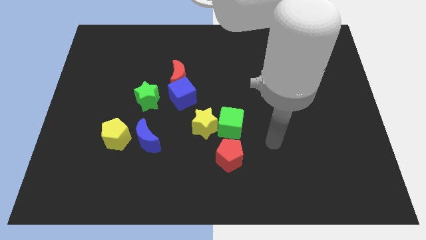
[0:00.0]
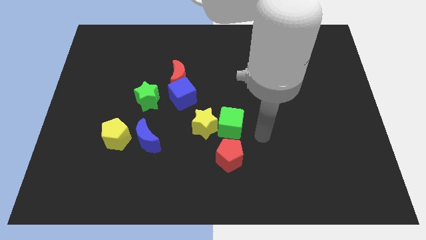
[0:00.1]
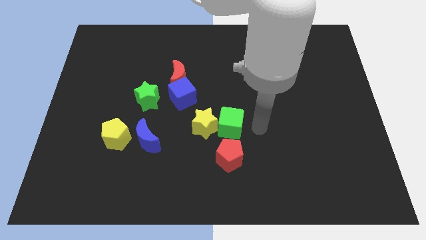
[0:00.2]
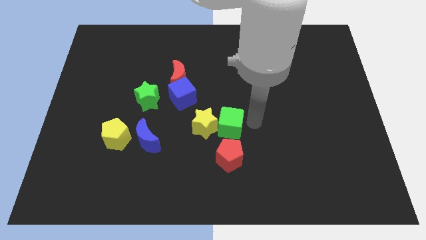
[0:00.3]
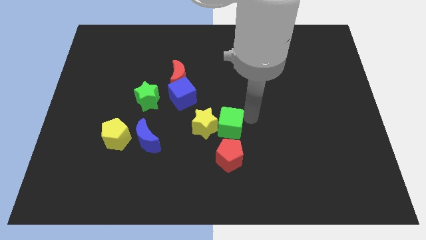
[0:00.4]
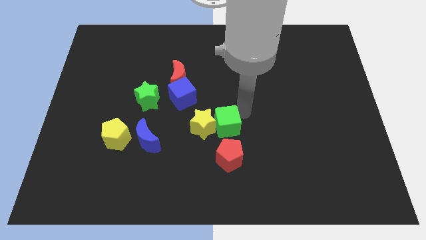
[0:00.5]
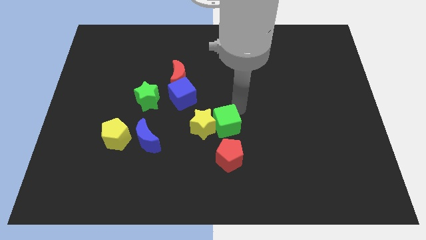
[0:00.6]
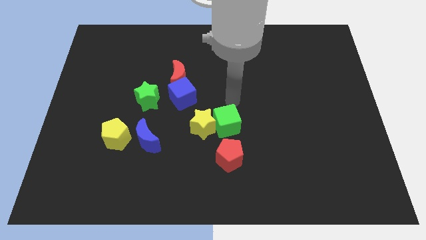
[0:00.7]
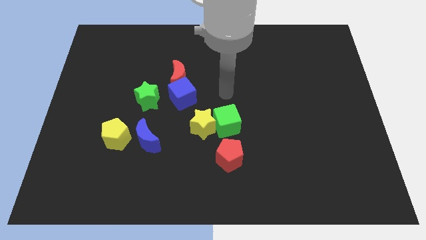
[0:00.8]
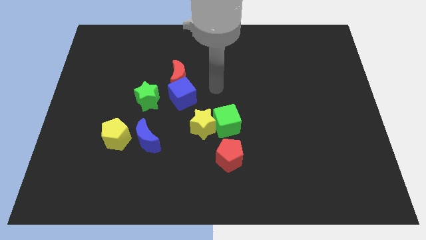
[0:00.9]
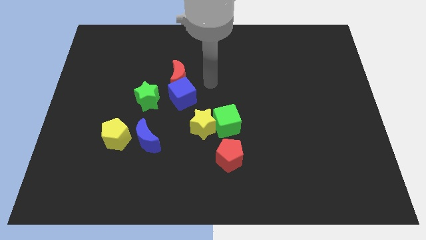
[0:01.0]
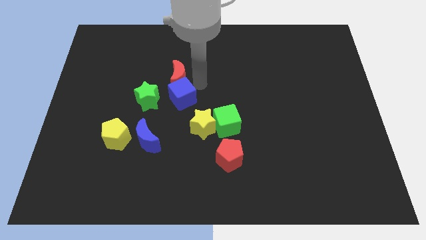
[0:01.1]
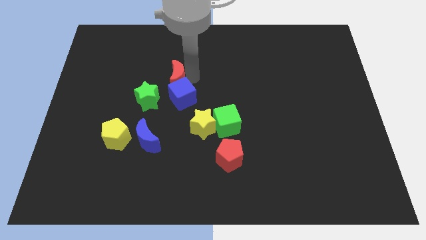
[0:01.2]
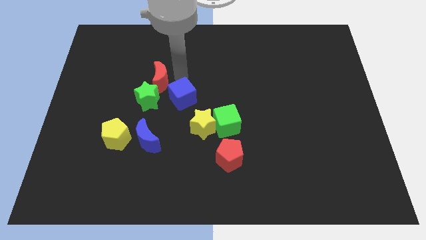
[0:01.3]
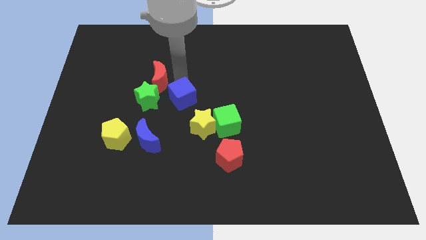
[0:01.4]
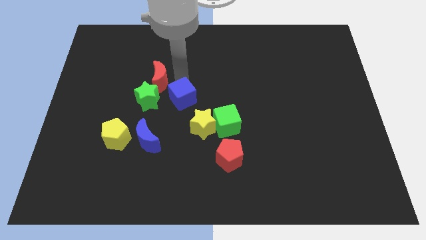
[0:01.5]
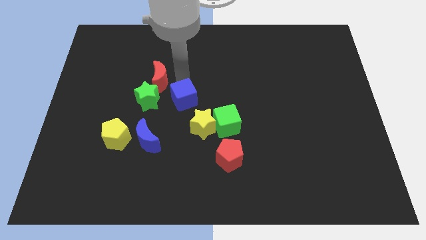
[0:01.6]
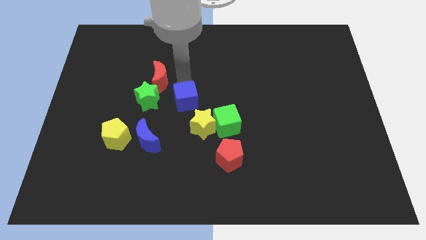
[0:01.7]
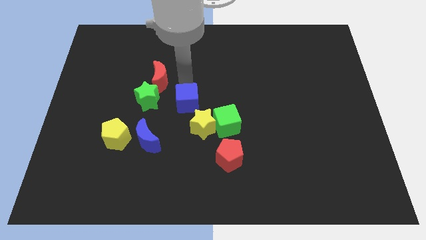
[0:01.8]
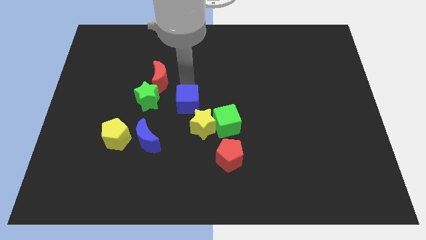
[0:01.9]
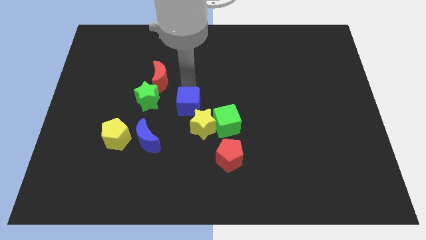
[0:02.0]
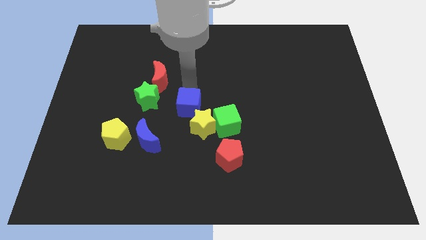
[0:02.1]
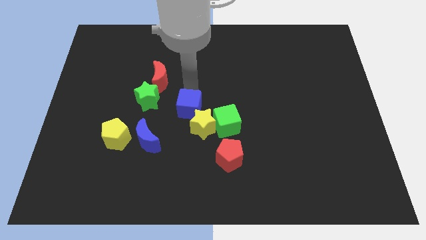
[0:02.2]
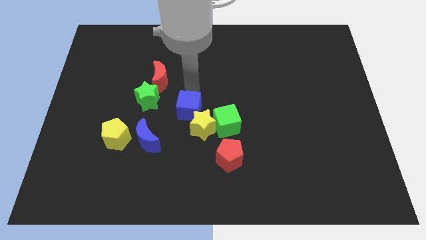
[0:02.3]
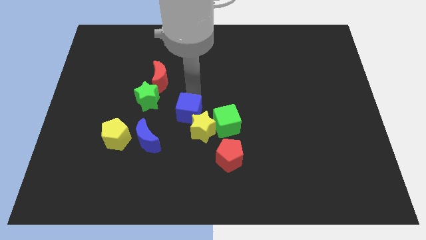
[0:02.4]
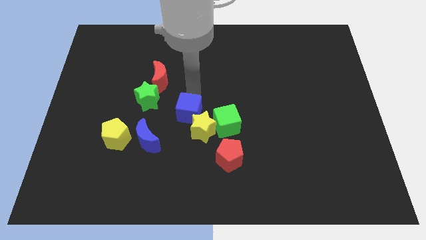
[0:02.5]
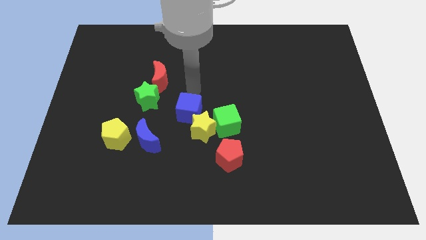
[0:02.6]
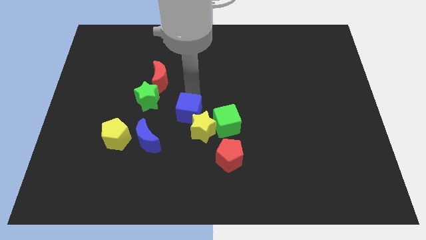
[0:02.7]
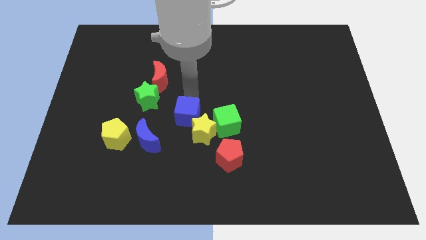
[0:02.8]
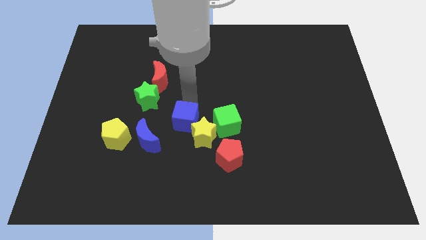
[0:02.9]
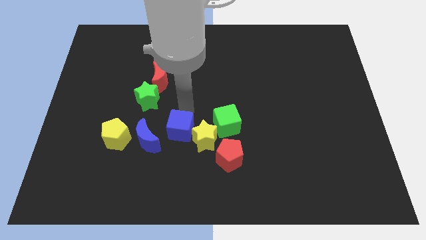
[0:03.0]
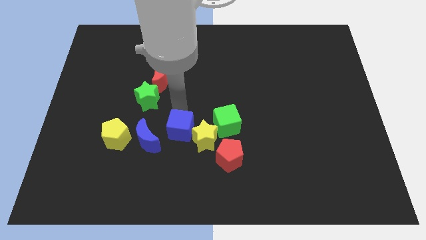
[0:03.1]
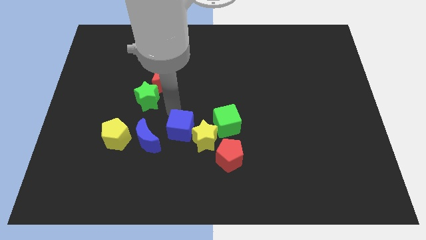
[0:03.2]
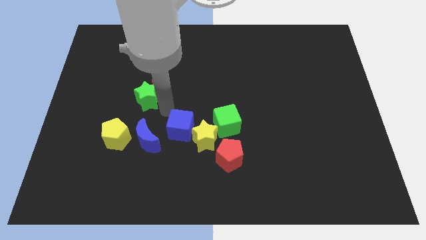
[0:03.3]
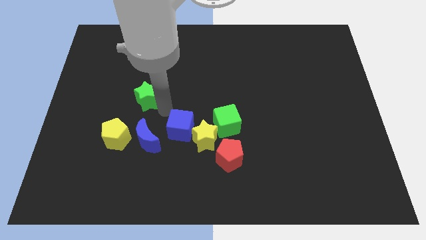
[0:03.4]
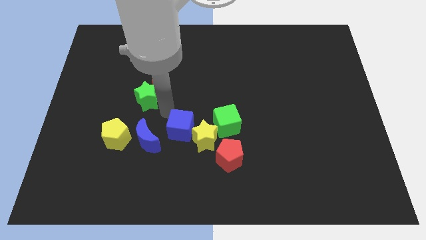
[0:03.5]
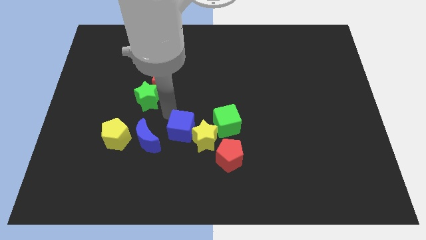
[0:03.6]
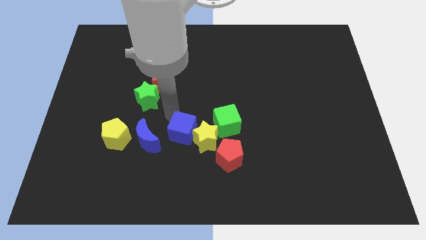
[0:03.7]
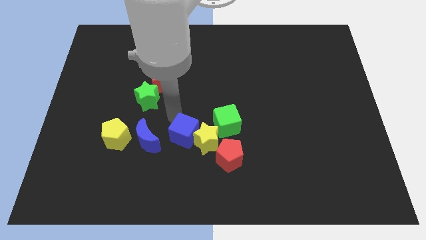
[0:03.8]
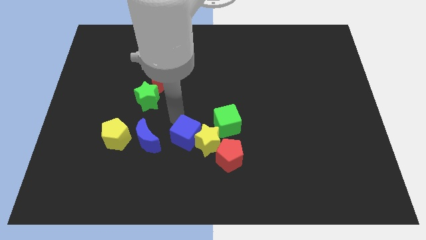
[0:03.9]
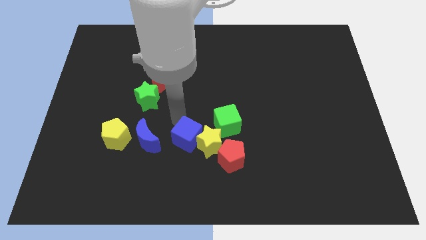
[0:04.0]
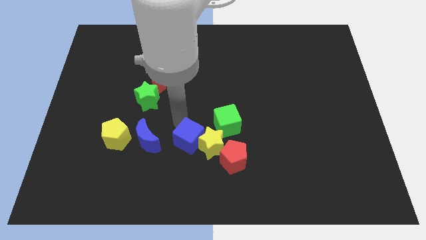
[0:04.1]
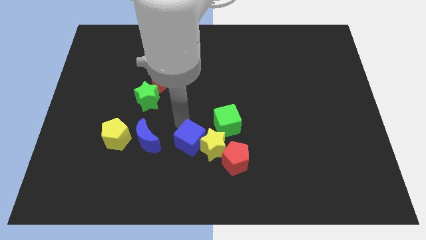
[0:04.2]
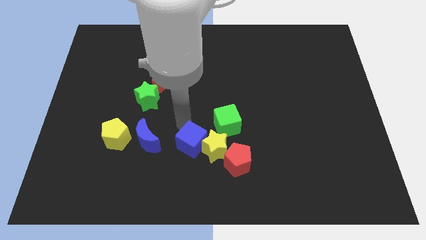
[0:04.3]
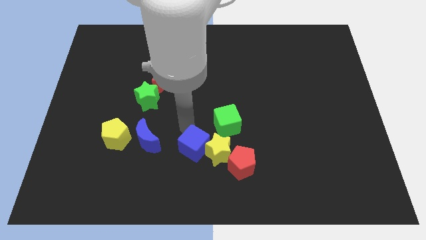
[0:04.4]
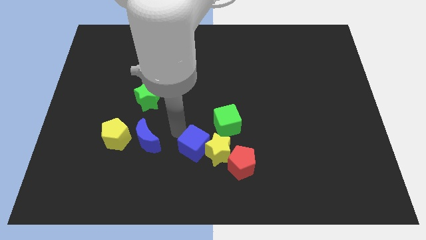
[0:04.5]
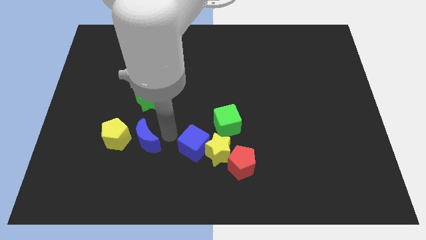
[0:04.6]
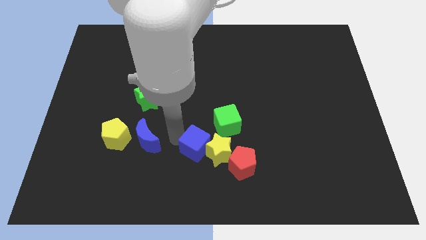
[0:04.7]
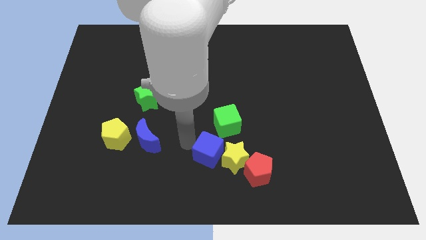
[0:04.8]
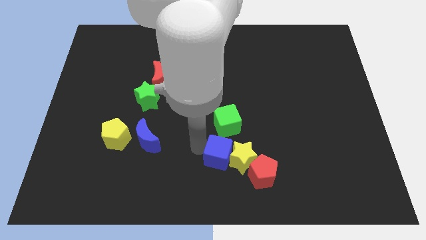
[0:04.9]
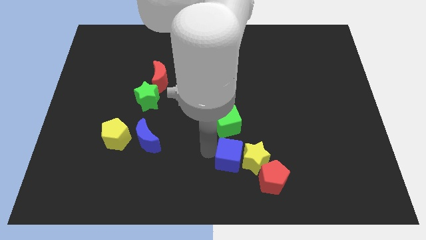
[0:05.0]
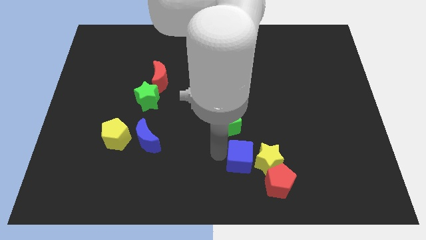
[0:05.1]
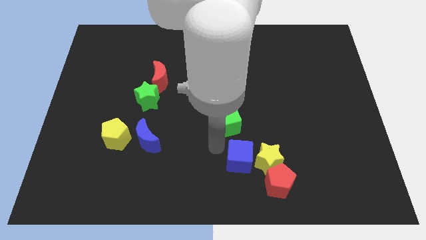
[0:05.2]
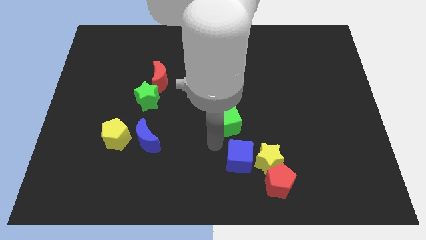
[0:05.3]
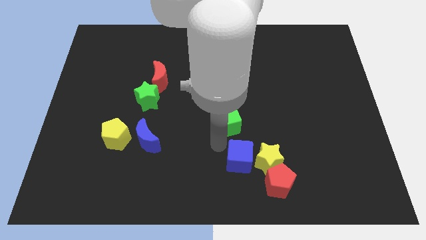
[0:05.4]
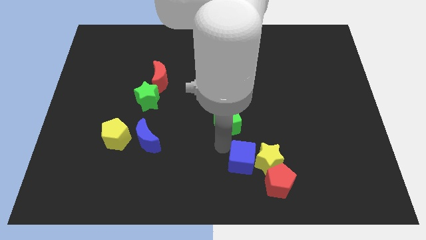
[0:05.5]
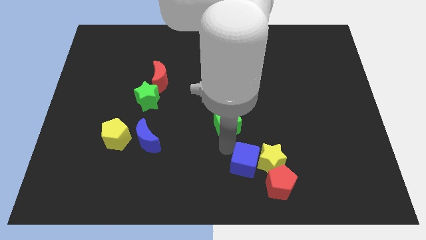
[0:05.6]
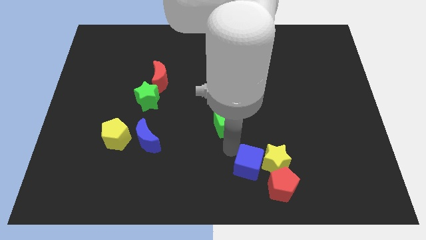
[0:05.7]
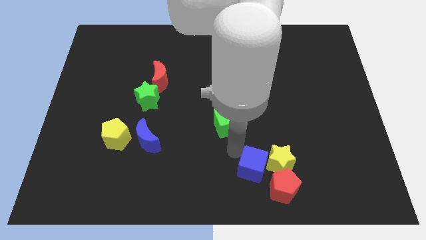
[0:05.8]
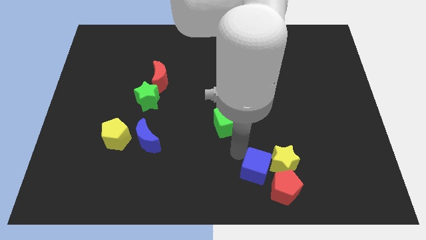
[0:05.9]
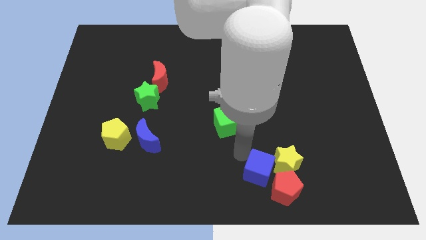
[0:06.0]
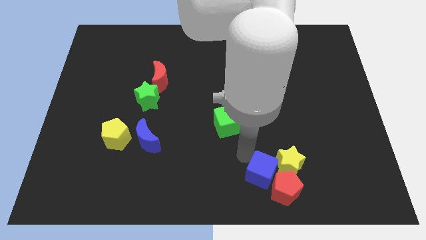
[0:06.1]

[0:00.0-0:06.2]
move the blue cube next to the red pentagon
